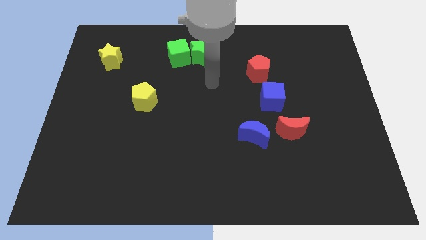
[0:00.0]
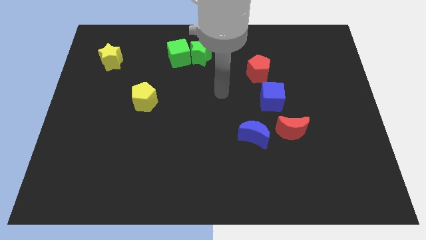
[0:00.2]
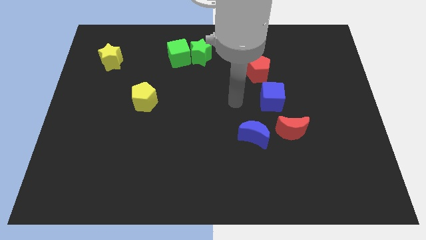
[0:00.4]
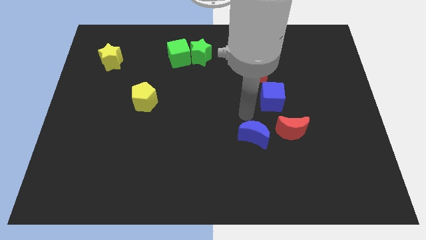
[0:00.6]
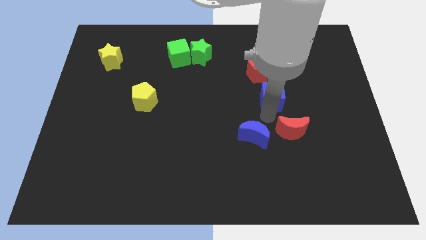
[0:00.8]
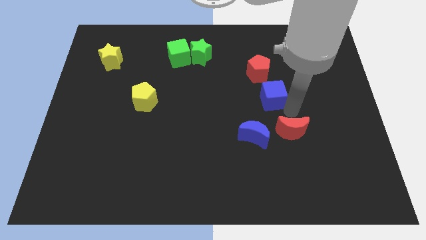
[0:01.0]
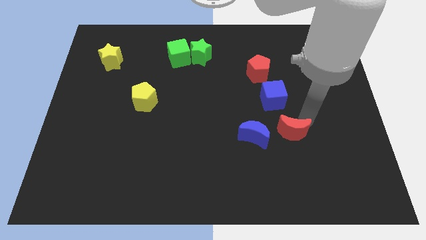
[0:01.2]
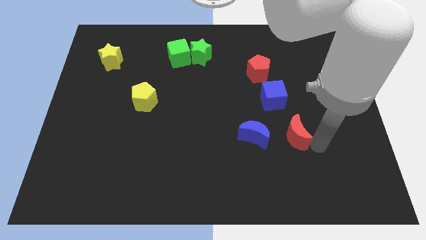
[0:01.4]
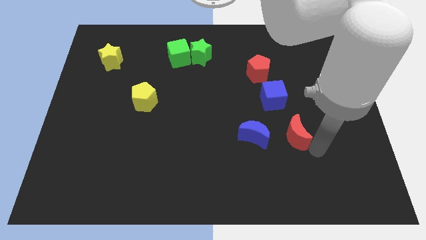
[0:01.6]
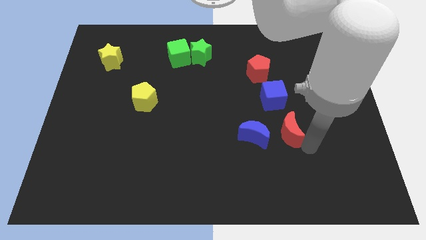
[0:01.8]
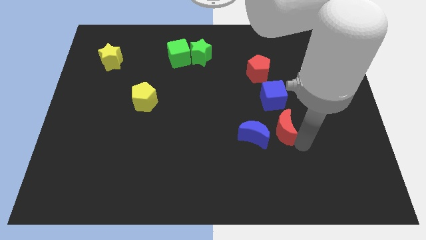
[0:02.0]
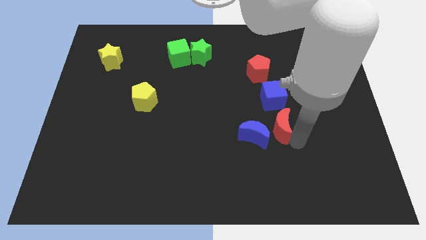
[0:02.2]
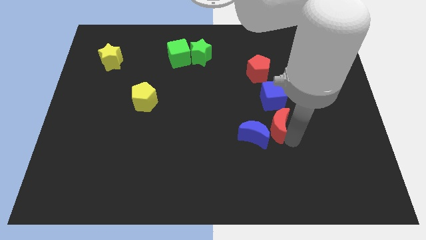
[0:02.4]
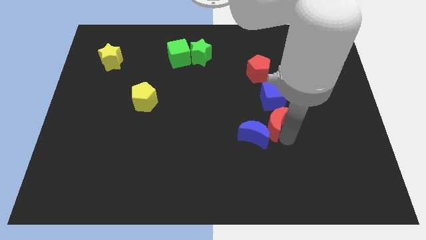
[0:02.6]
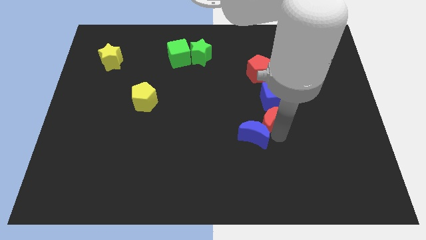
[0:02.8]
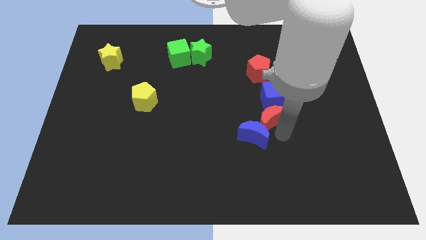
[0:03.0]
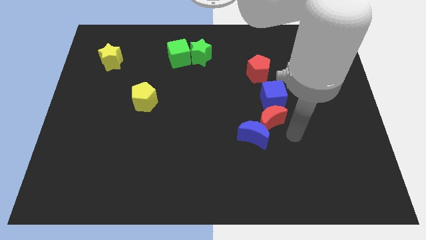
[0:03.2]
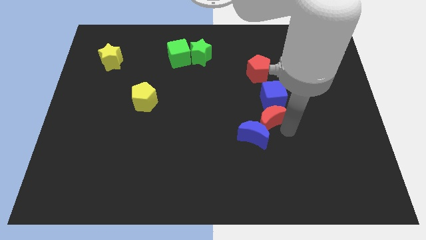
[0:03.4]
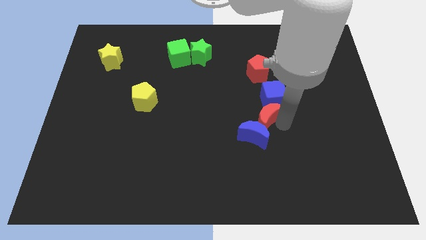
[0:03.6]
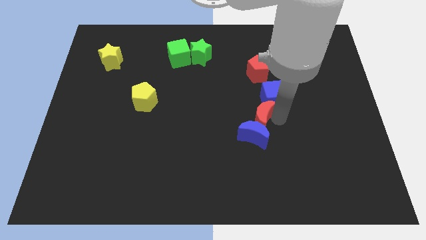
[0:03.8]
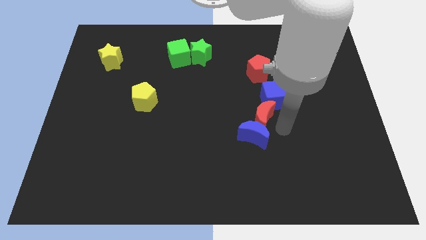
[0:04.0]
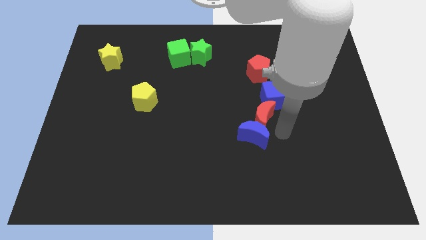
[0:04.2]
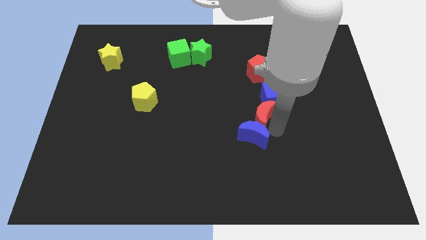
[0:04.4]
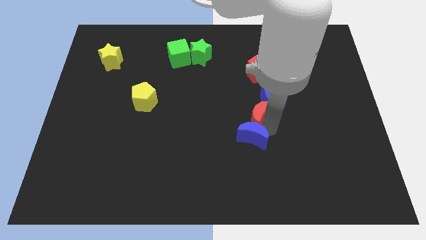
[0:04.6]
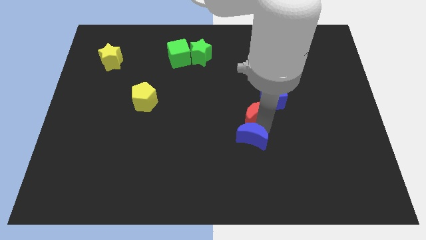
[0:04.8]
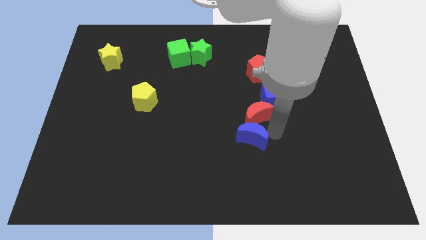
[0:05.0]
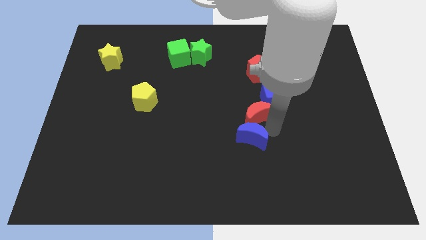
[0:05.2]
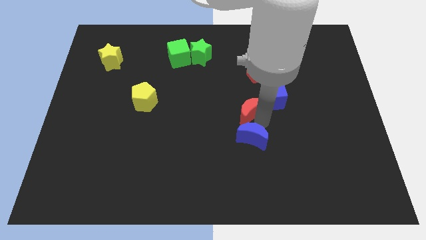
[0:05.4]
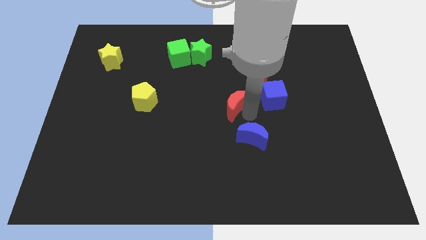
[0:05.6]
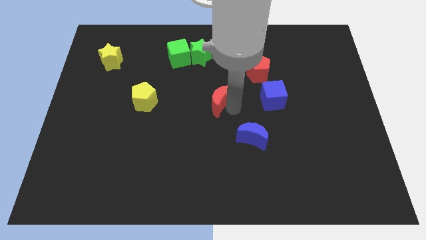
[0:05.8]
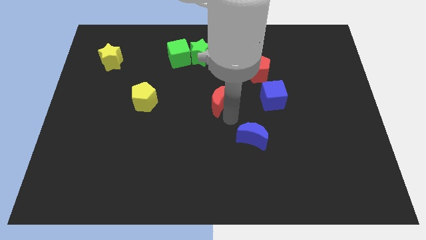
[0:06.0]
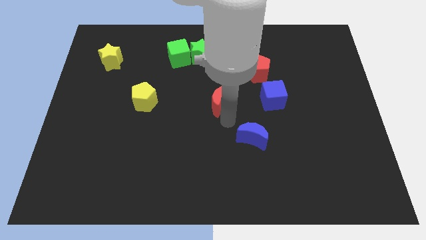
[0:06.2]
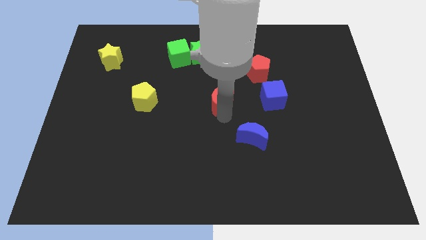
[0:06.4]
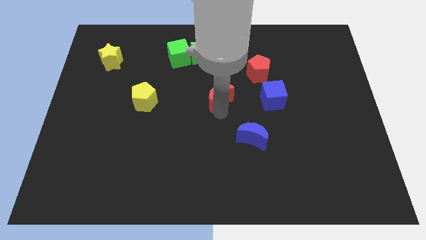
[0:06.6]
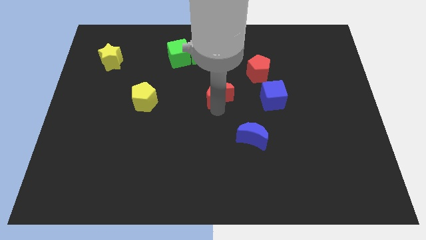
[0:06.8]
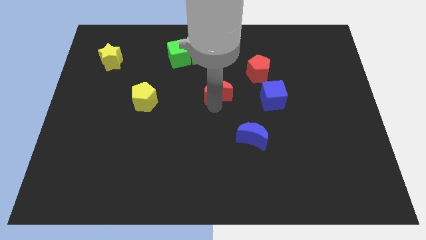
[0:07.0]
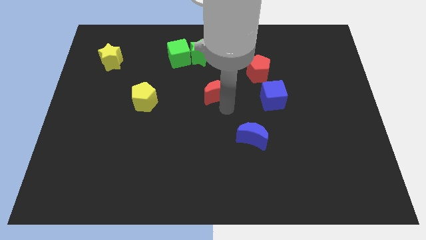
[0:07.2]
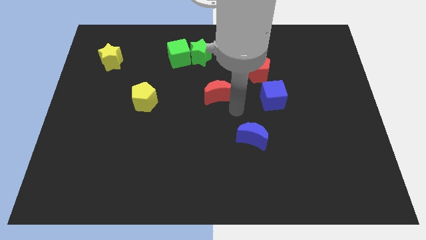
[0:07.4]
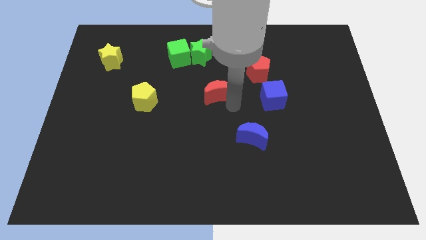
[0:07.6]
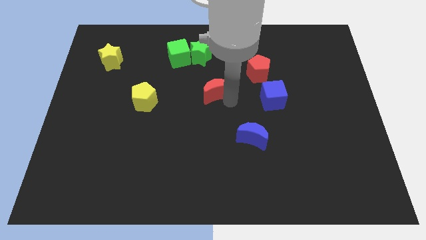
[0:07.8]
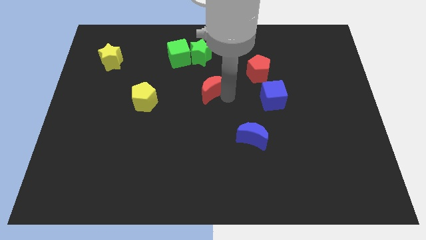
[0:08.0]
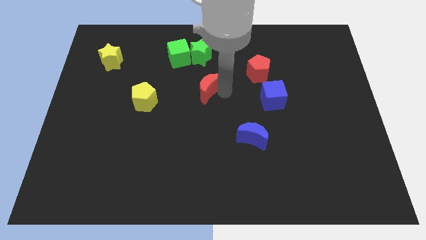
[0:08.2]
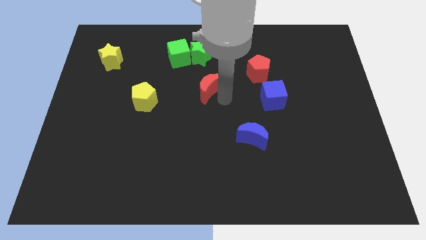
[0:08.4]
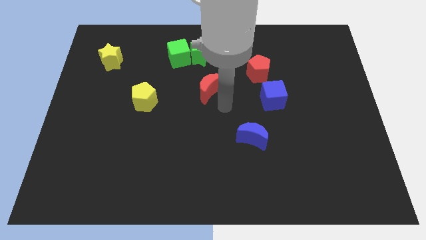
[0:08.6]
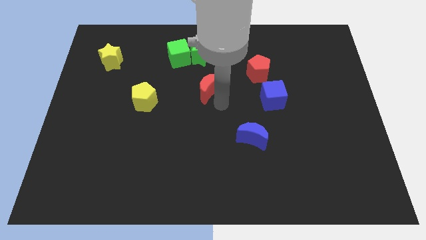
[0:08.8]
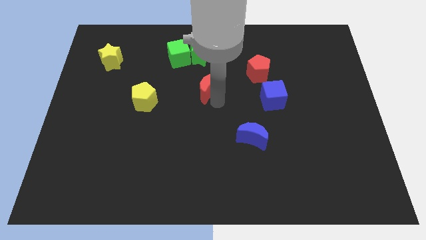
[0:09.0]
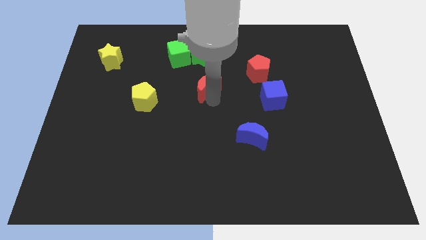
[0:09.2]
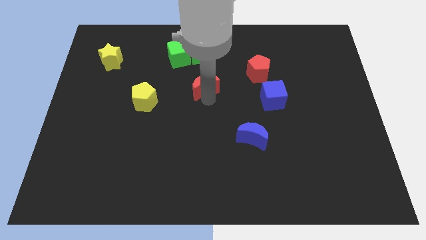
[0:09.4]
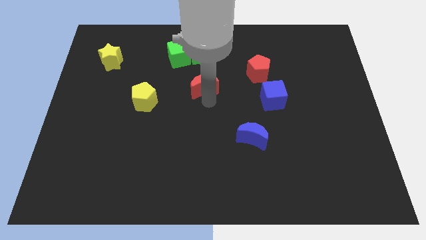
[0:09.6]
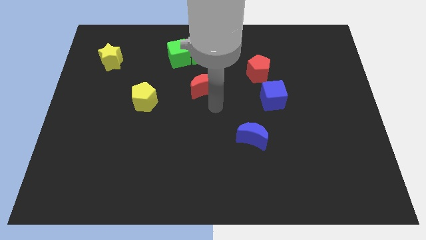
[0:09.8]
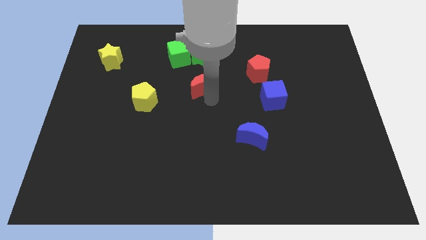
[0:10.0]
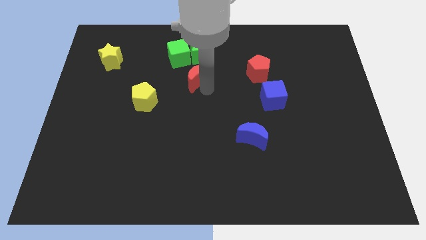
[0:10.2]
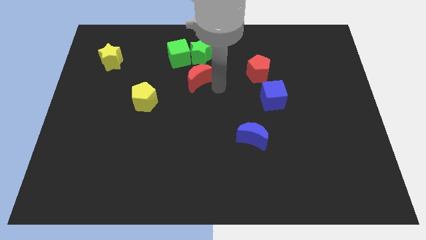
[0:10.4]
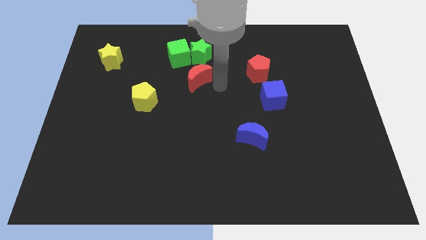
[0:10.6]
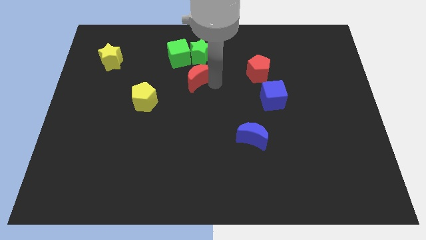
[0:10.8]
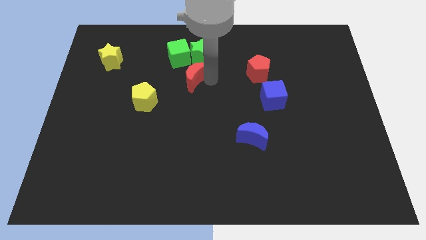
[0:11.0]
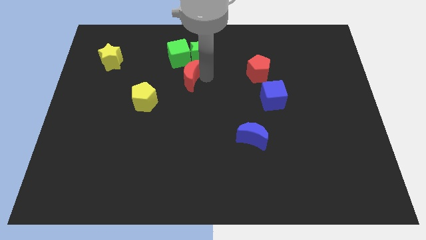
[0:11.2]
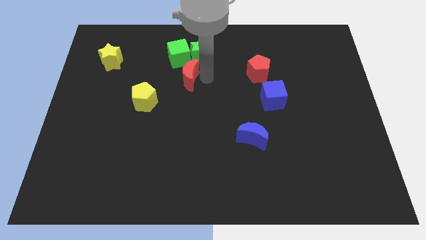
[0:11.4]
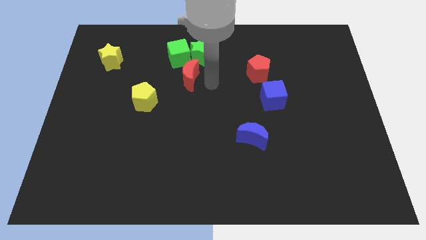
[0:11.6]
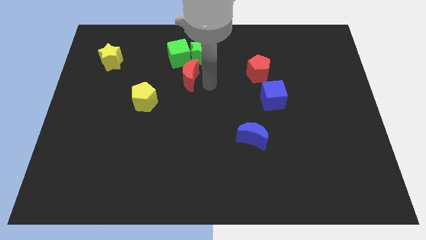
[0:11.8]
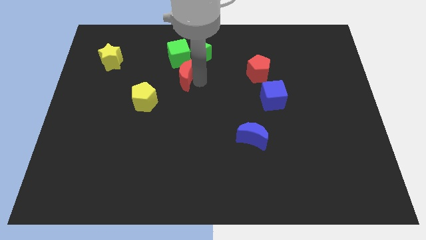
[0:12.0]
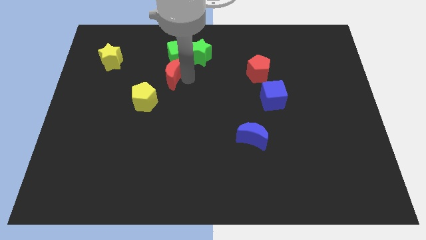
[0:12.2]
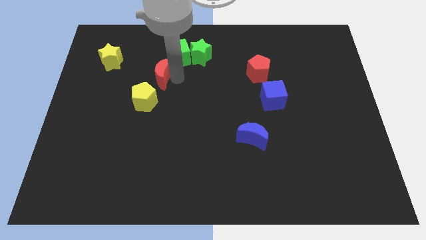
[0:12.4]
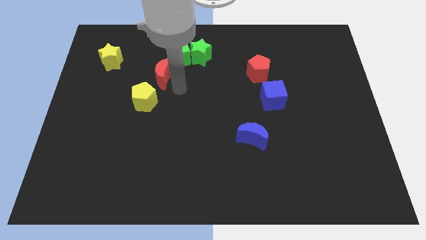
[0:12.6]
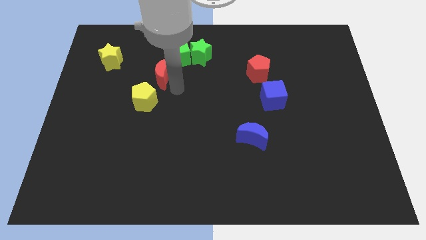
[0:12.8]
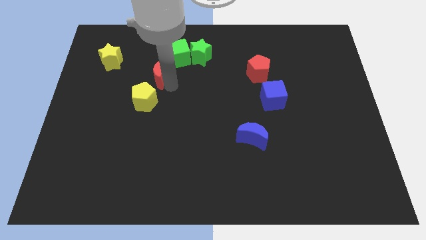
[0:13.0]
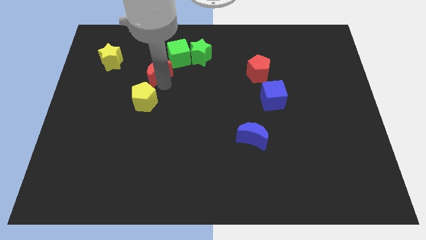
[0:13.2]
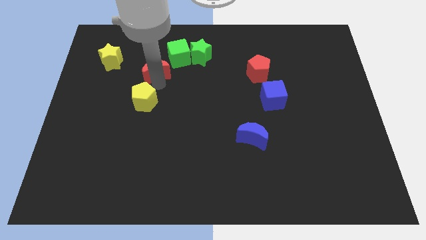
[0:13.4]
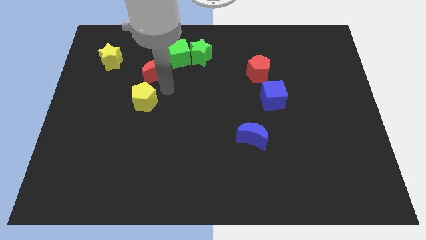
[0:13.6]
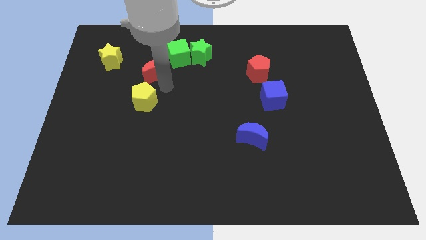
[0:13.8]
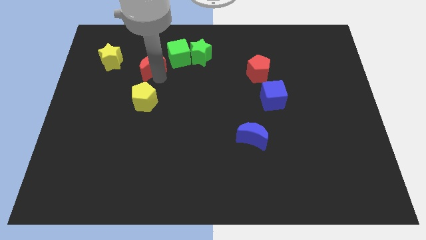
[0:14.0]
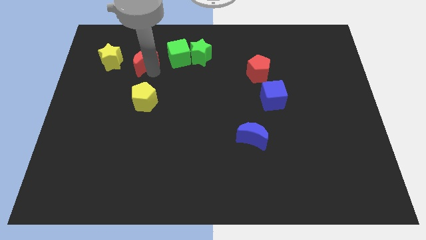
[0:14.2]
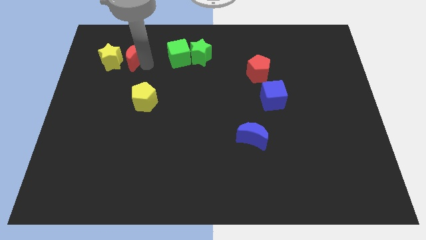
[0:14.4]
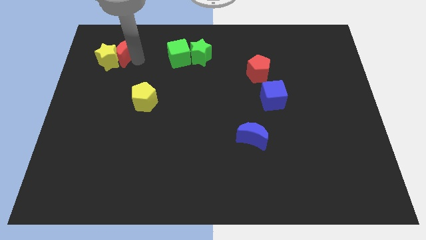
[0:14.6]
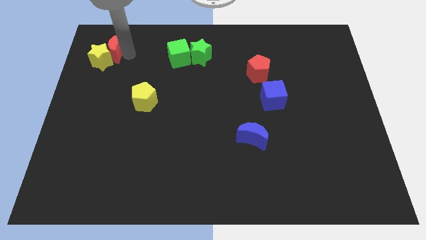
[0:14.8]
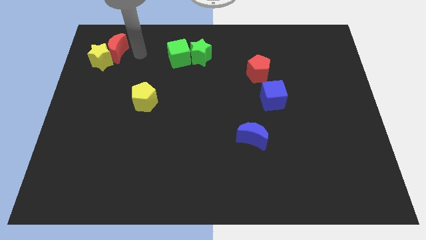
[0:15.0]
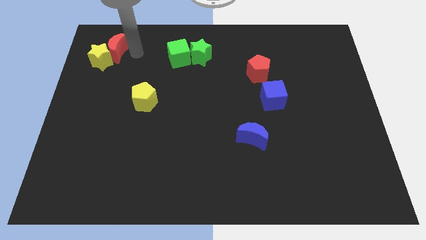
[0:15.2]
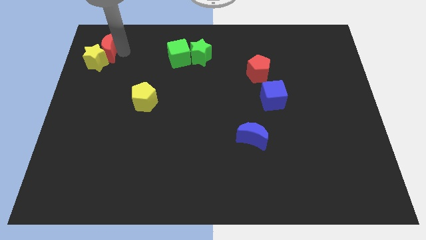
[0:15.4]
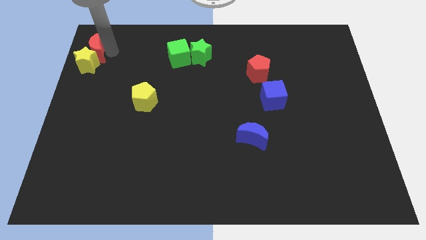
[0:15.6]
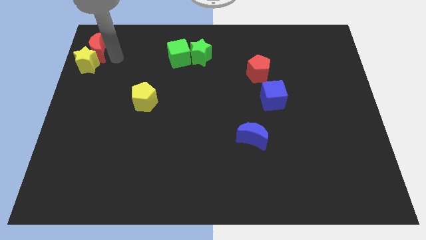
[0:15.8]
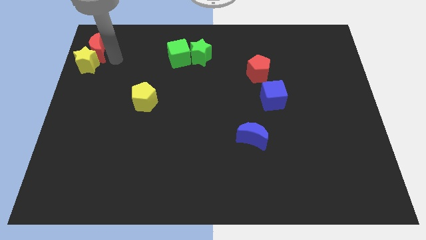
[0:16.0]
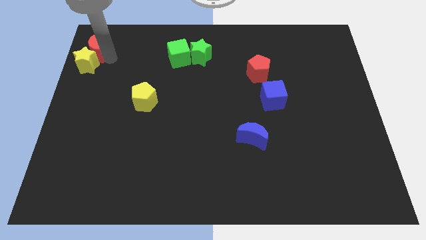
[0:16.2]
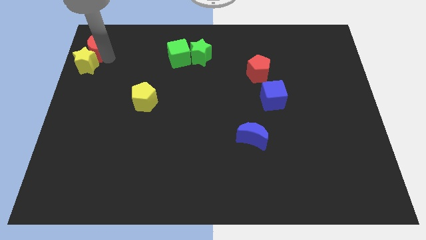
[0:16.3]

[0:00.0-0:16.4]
slide the red moon to the upper left corner
